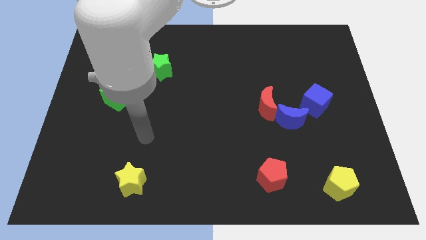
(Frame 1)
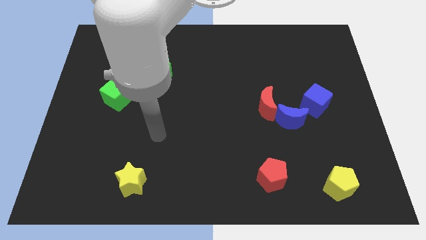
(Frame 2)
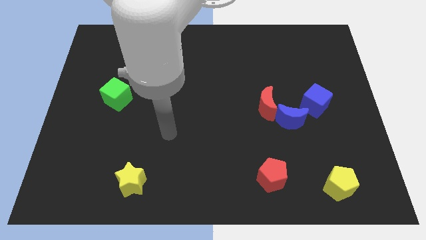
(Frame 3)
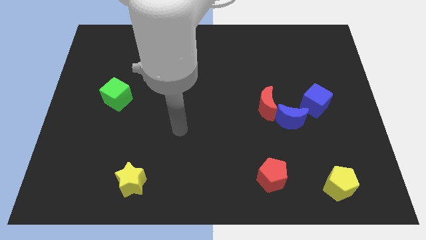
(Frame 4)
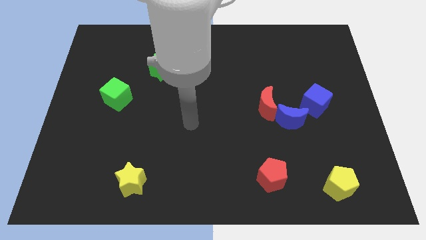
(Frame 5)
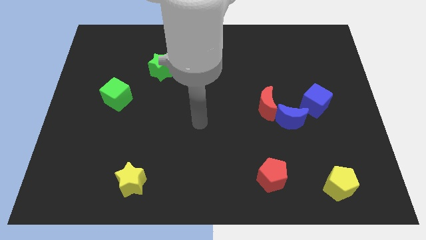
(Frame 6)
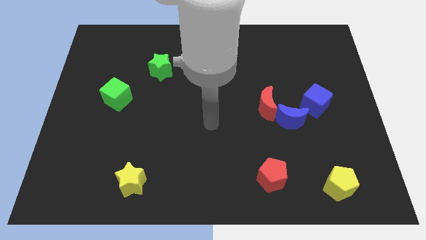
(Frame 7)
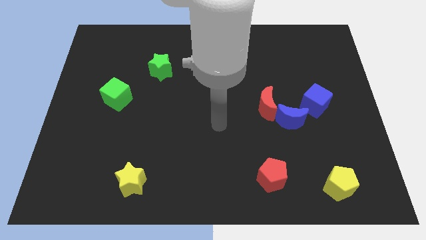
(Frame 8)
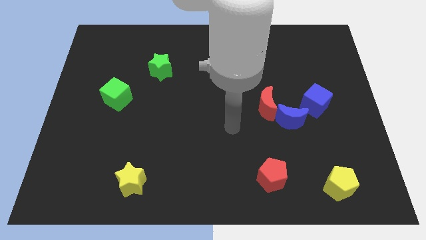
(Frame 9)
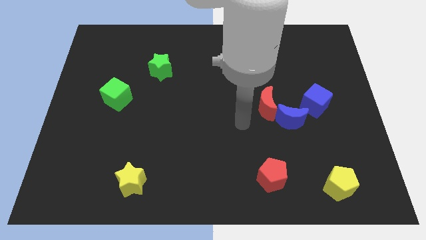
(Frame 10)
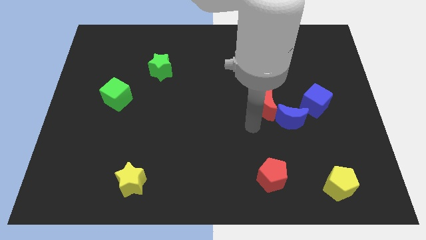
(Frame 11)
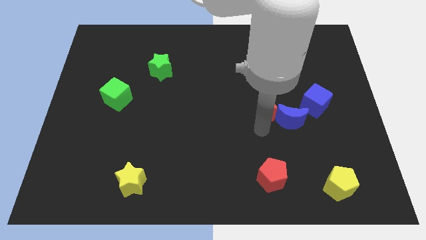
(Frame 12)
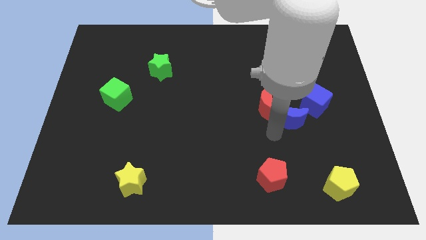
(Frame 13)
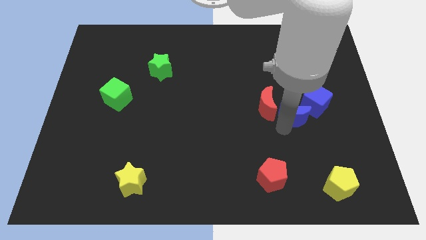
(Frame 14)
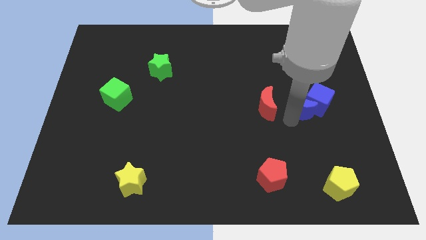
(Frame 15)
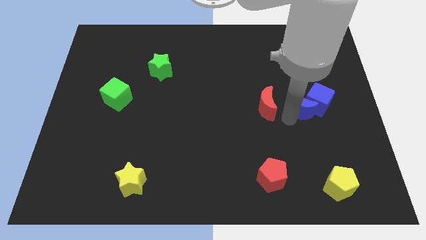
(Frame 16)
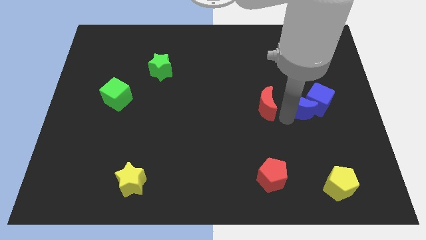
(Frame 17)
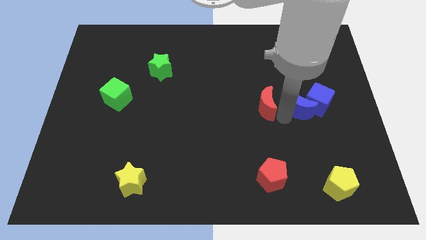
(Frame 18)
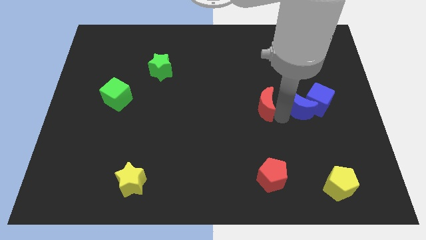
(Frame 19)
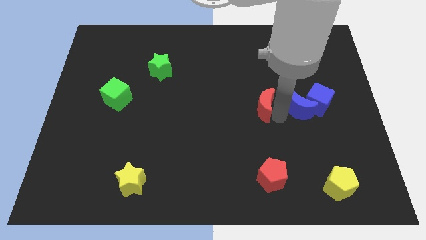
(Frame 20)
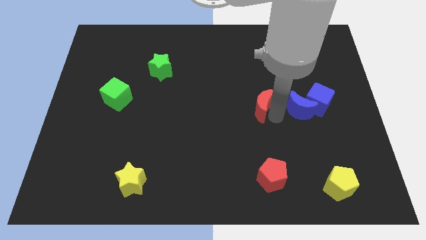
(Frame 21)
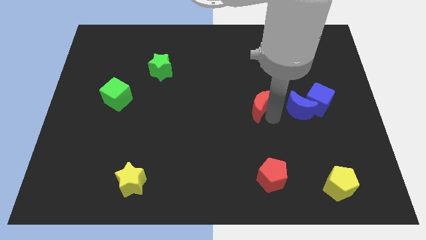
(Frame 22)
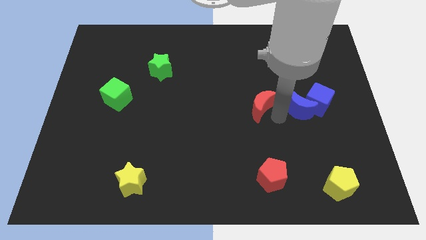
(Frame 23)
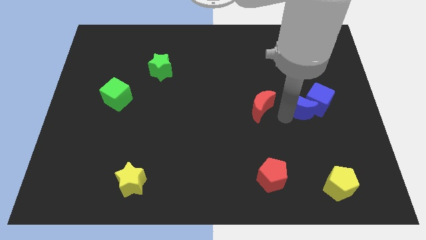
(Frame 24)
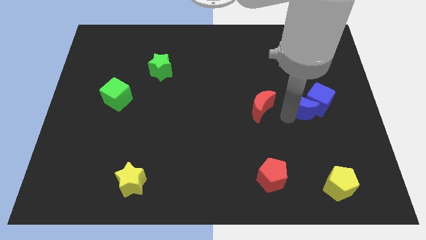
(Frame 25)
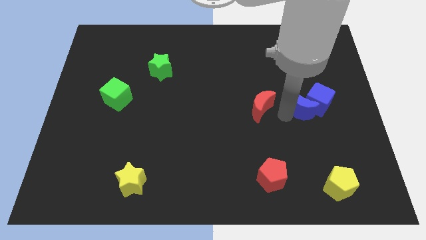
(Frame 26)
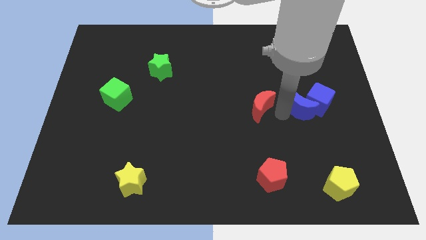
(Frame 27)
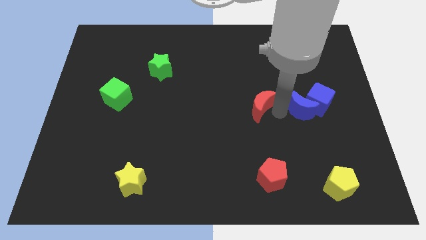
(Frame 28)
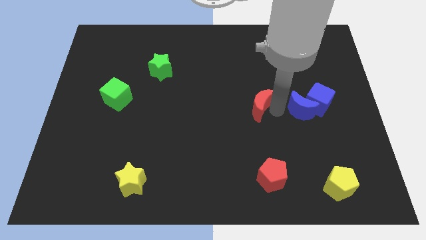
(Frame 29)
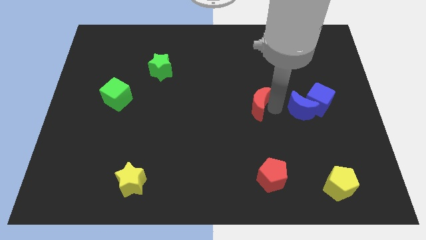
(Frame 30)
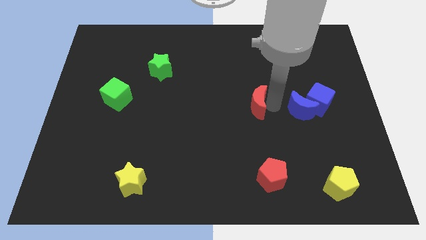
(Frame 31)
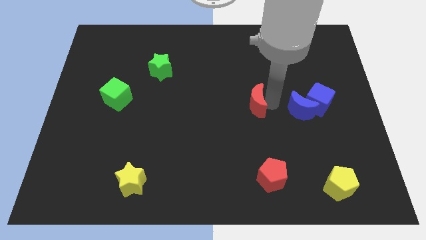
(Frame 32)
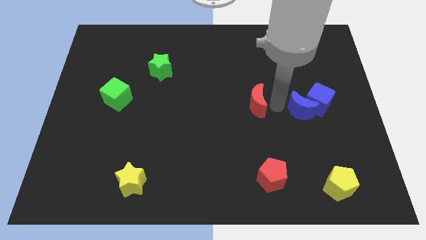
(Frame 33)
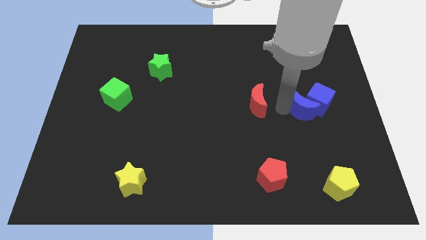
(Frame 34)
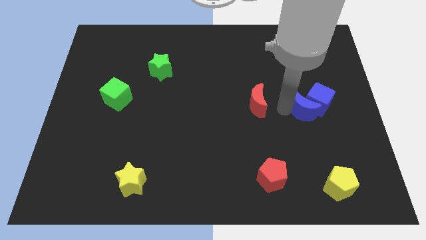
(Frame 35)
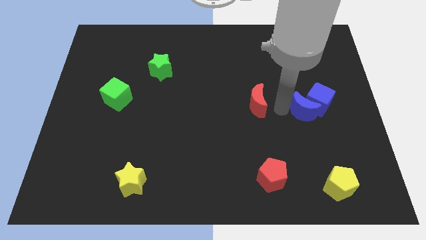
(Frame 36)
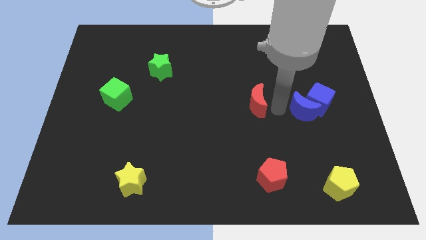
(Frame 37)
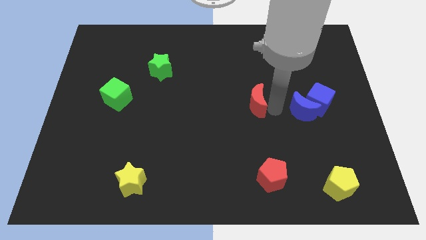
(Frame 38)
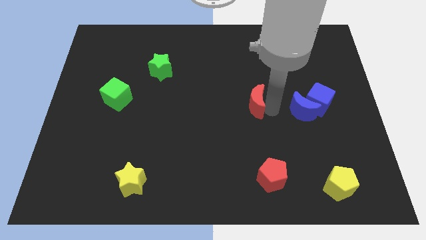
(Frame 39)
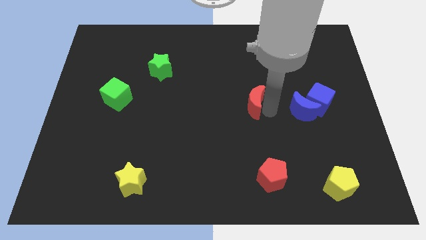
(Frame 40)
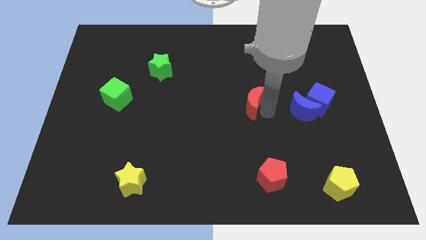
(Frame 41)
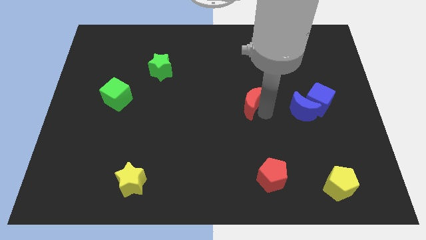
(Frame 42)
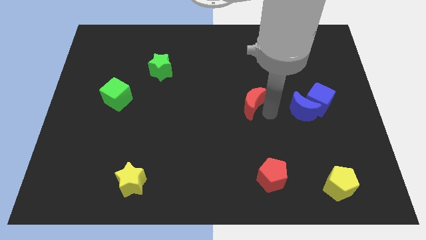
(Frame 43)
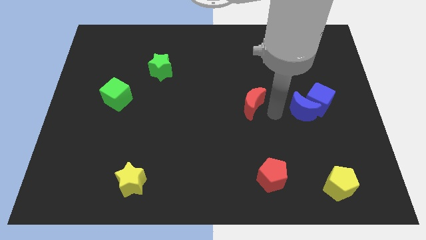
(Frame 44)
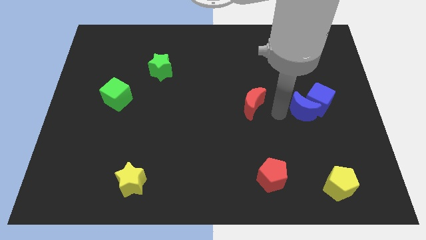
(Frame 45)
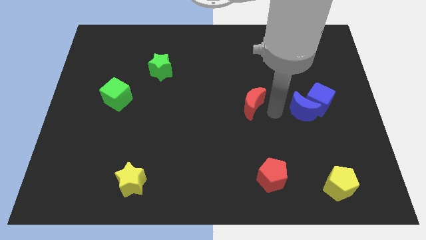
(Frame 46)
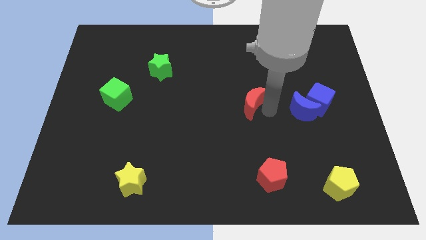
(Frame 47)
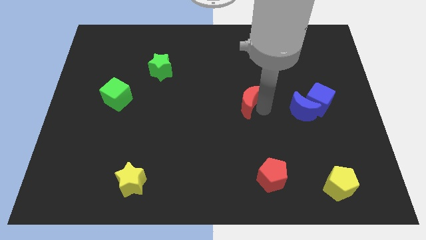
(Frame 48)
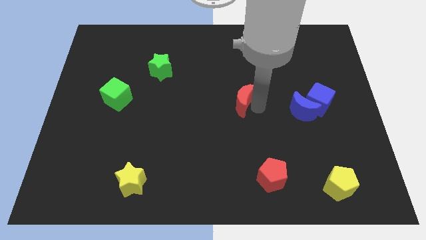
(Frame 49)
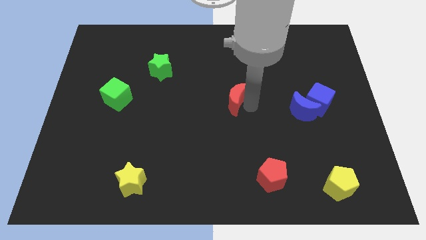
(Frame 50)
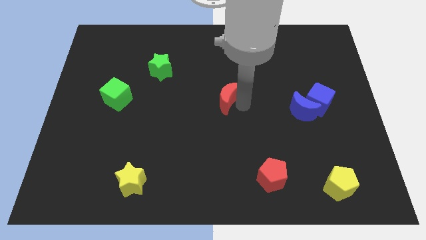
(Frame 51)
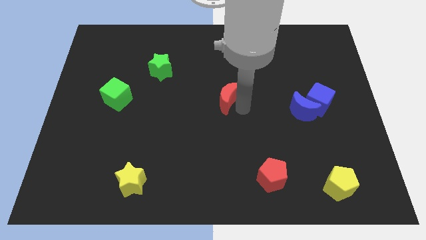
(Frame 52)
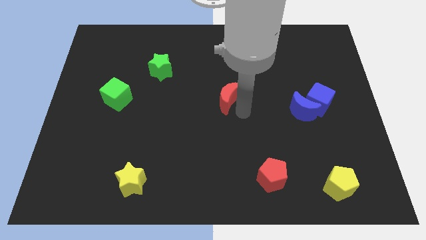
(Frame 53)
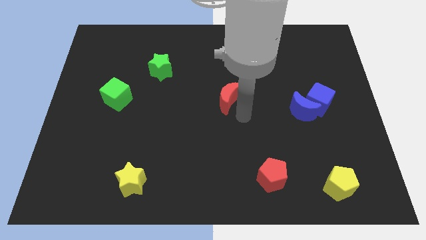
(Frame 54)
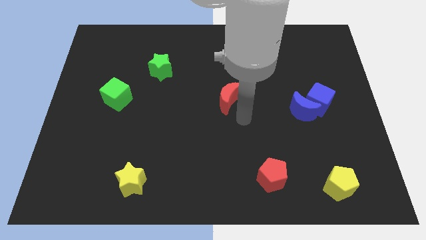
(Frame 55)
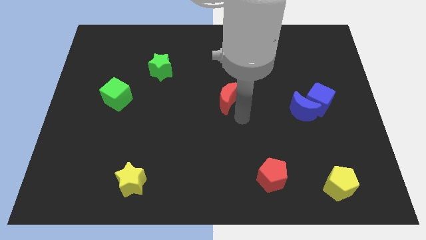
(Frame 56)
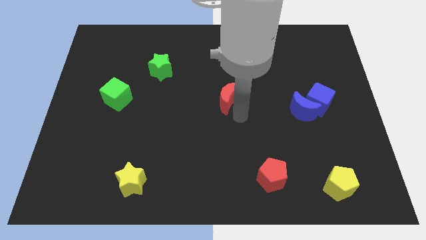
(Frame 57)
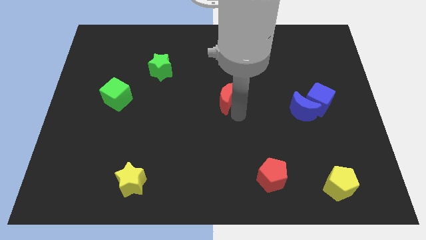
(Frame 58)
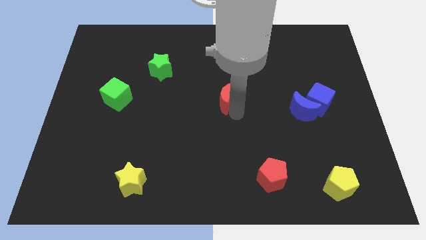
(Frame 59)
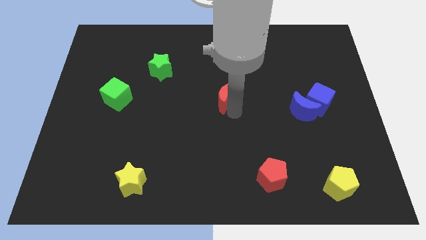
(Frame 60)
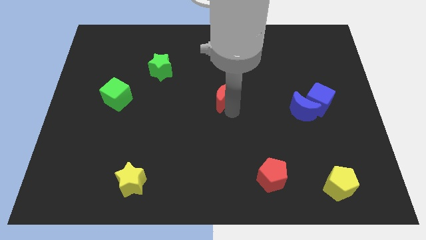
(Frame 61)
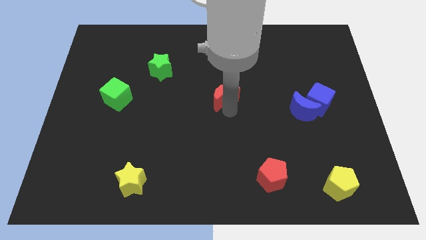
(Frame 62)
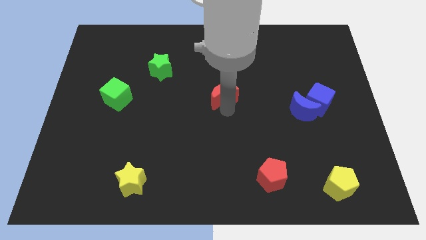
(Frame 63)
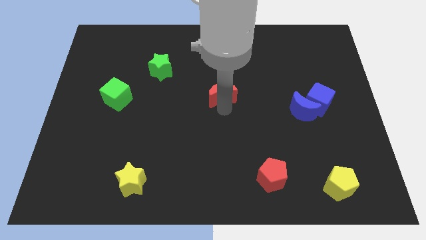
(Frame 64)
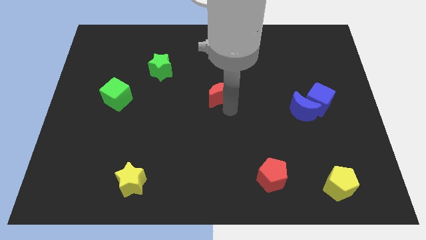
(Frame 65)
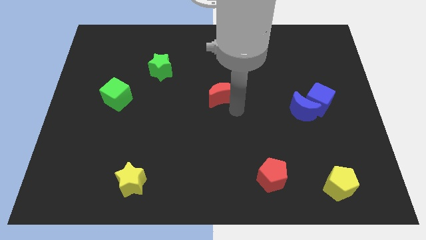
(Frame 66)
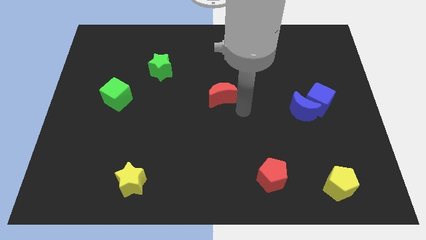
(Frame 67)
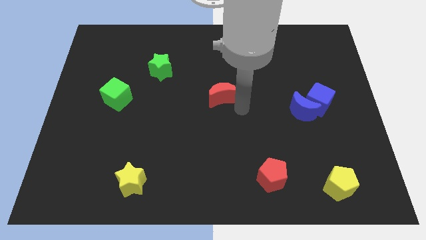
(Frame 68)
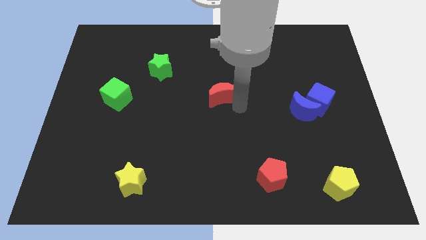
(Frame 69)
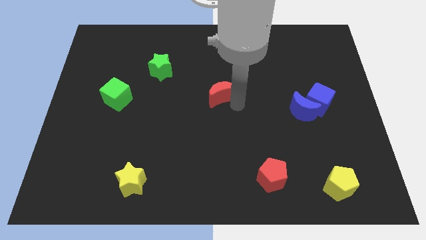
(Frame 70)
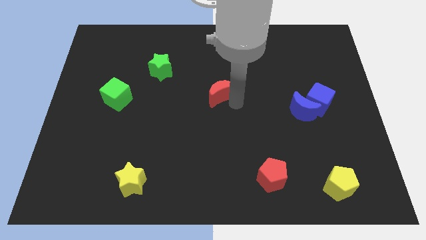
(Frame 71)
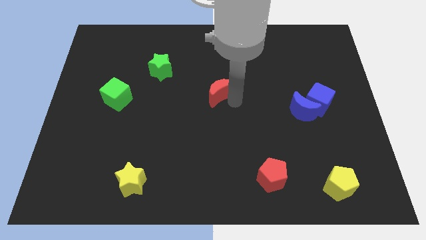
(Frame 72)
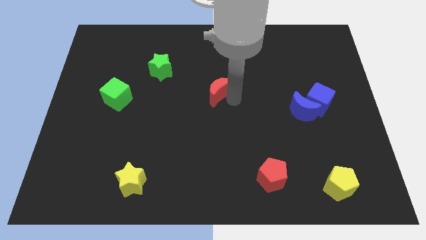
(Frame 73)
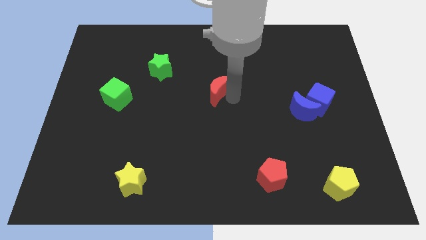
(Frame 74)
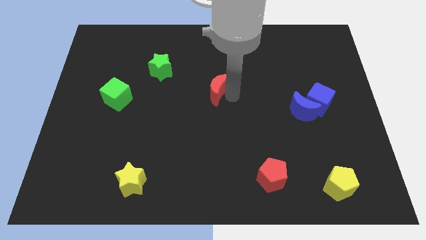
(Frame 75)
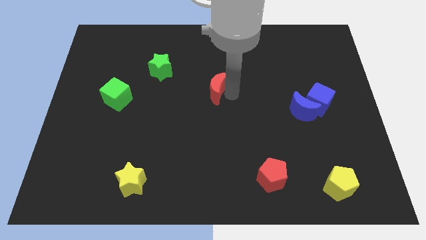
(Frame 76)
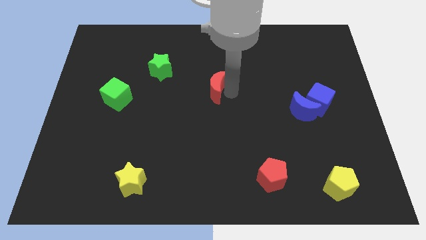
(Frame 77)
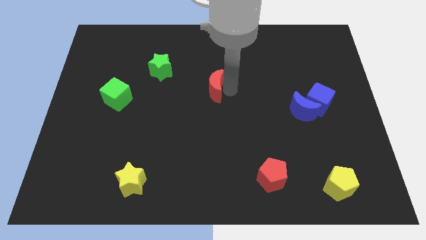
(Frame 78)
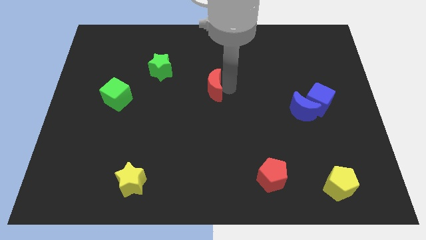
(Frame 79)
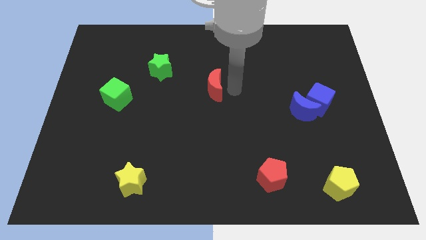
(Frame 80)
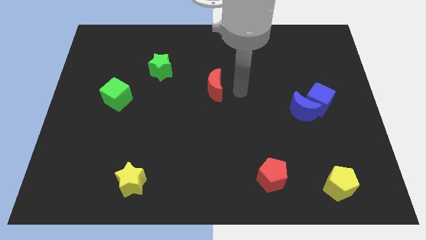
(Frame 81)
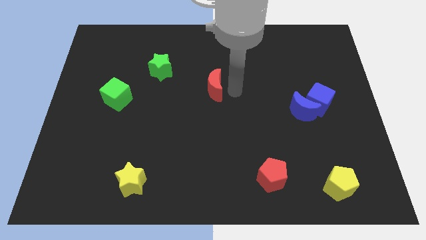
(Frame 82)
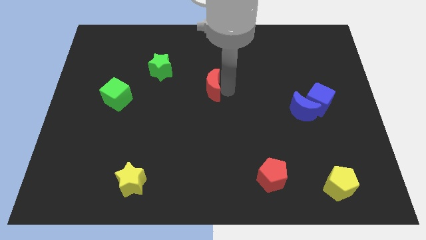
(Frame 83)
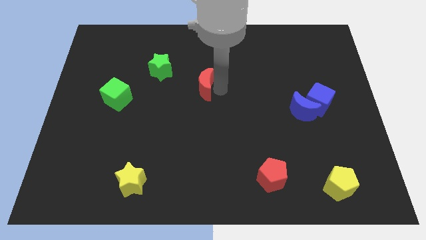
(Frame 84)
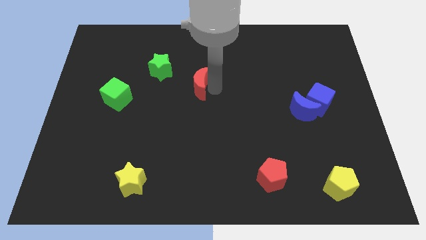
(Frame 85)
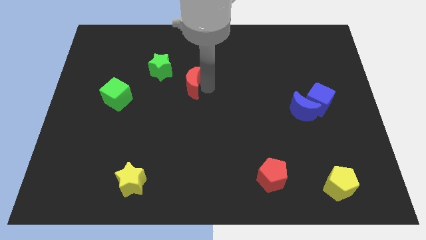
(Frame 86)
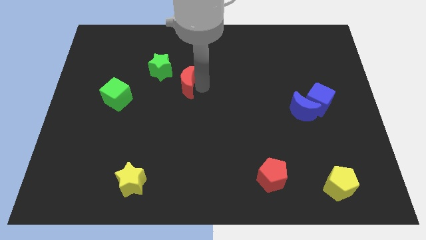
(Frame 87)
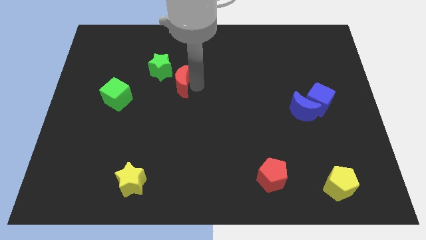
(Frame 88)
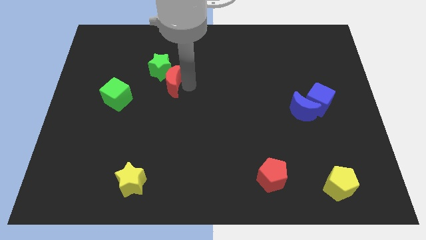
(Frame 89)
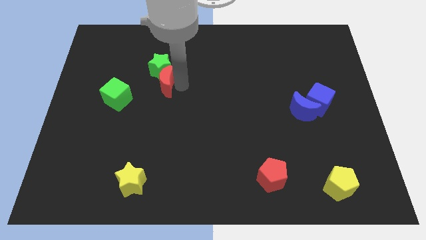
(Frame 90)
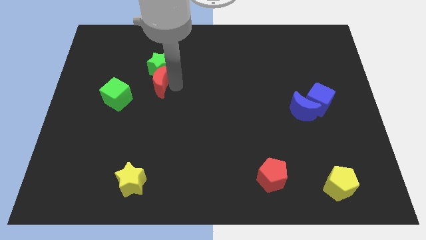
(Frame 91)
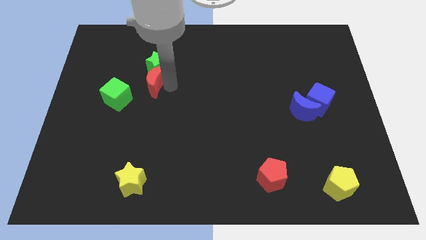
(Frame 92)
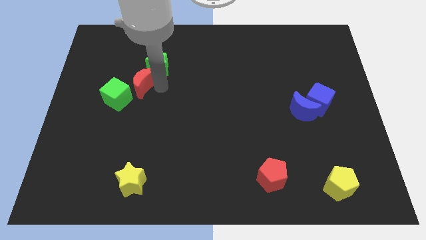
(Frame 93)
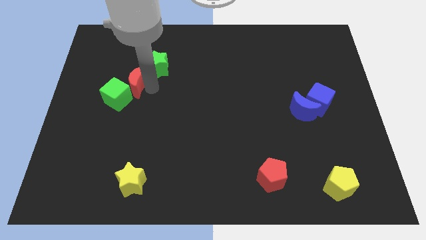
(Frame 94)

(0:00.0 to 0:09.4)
put the red moon to the top side of the green cube
